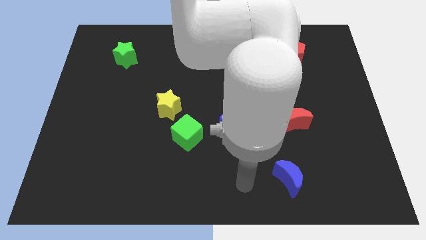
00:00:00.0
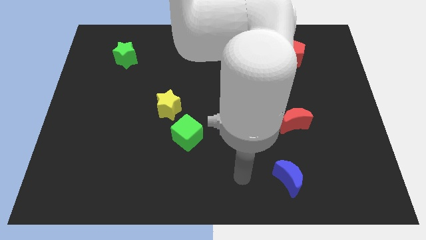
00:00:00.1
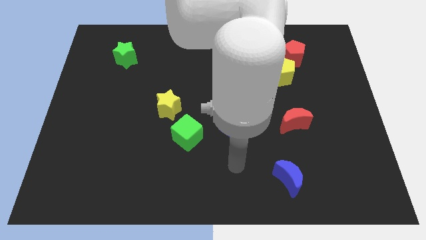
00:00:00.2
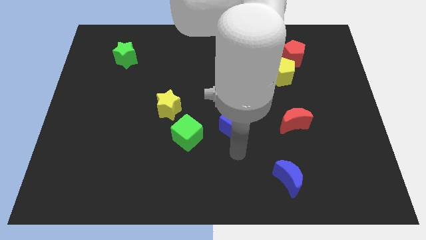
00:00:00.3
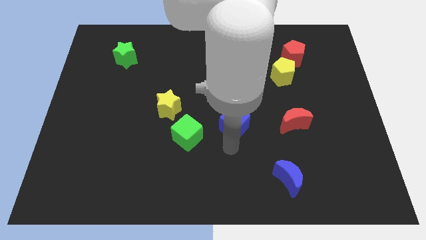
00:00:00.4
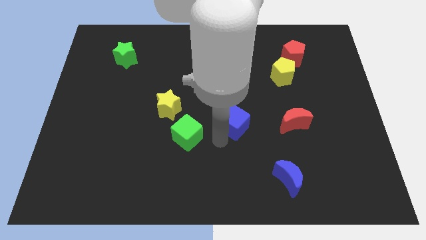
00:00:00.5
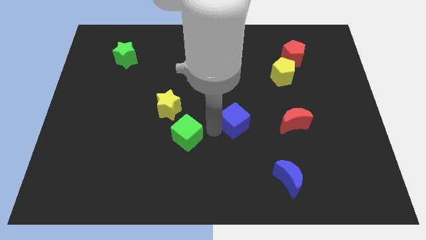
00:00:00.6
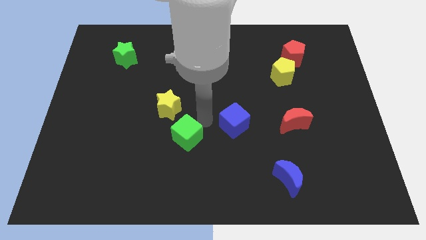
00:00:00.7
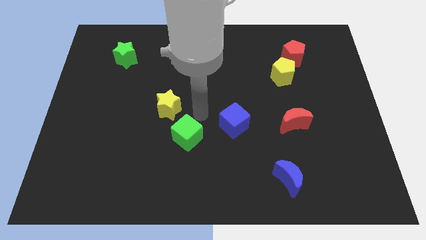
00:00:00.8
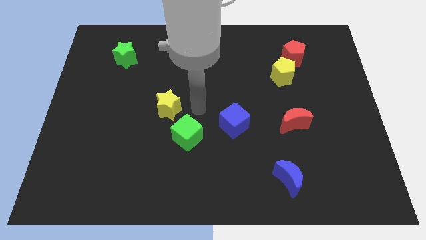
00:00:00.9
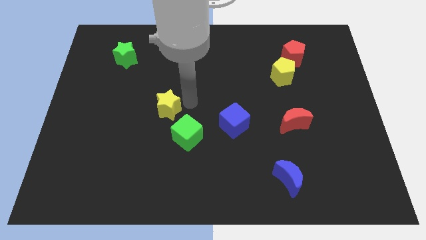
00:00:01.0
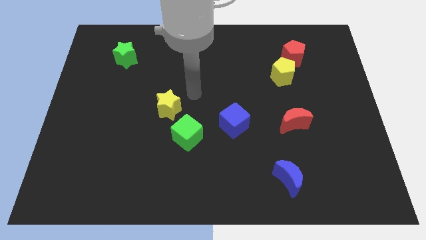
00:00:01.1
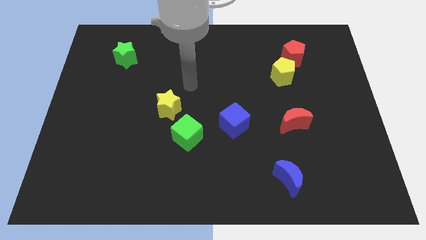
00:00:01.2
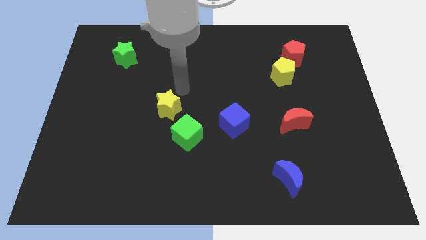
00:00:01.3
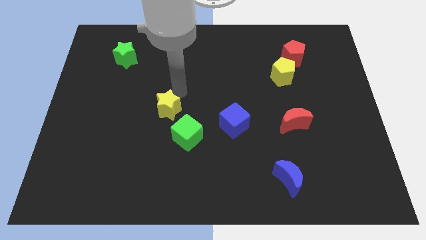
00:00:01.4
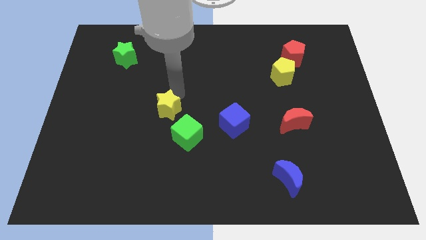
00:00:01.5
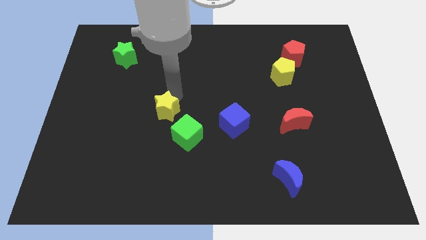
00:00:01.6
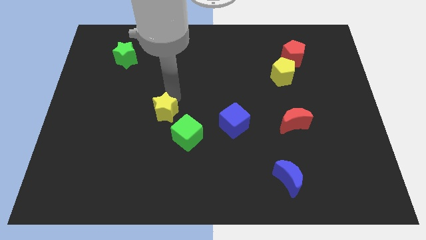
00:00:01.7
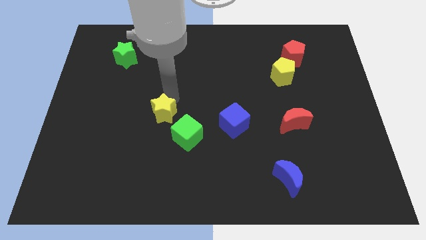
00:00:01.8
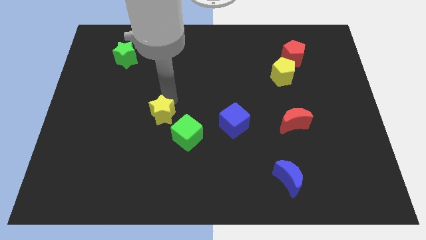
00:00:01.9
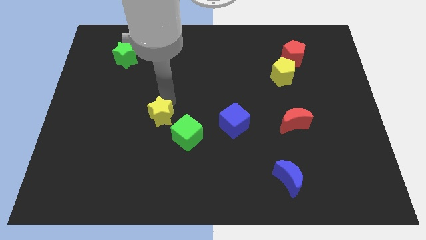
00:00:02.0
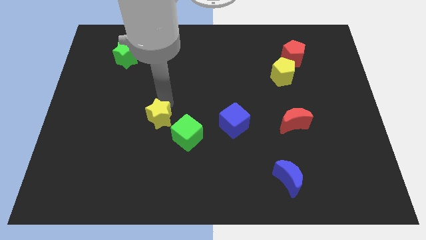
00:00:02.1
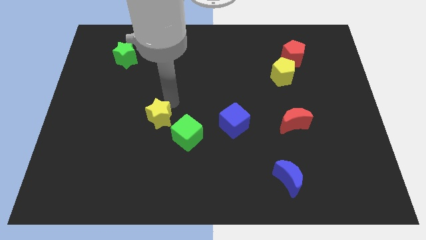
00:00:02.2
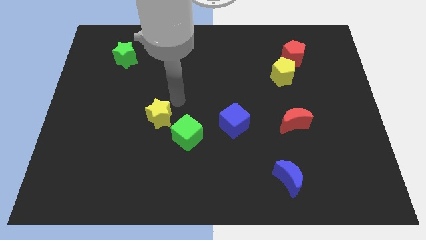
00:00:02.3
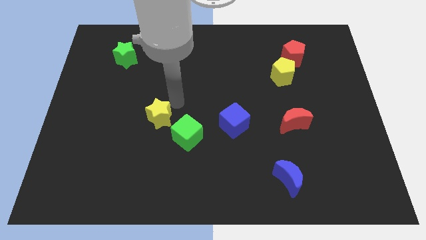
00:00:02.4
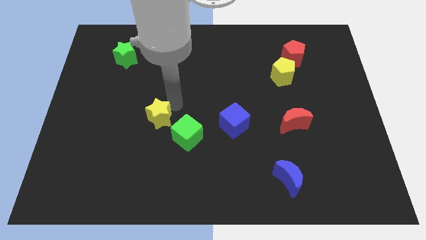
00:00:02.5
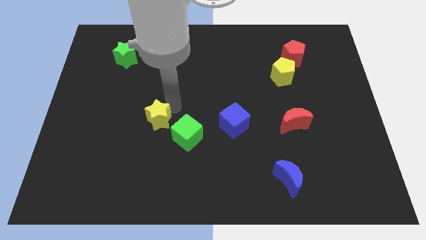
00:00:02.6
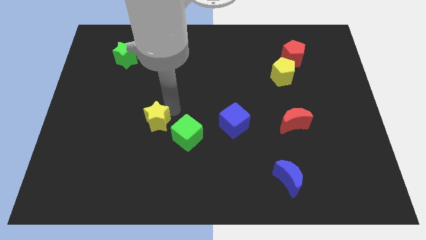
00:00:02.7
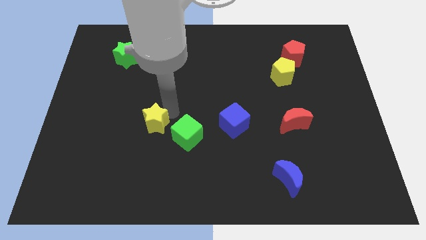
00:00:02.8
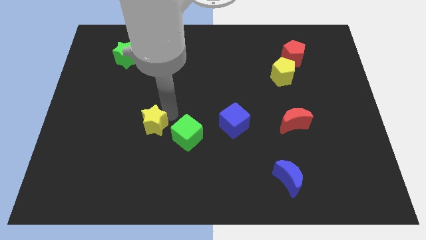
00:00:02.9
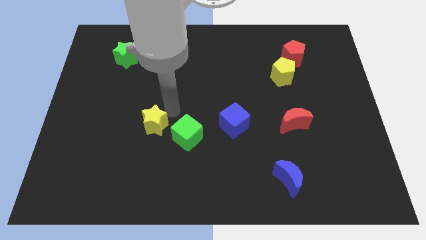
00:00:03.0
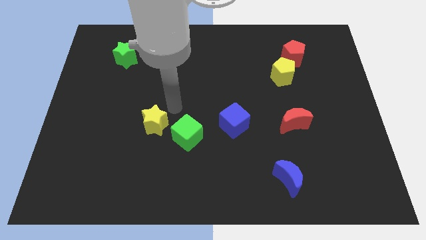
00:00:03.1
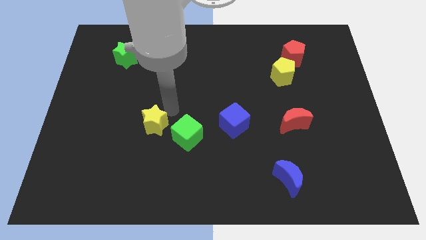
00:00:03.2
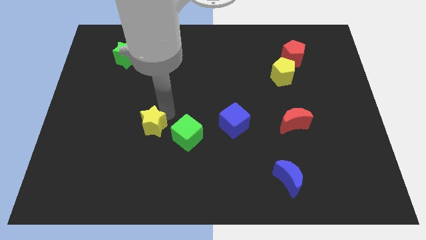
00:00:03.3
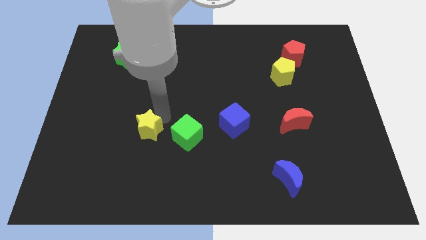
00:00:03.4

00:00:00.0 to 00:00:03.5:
slightly slide the yellow star diagonally down and to the left

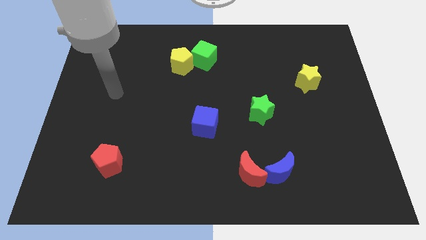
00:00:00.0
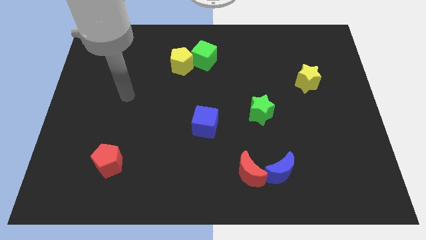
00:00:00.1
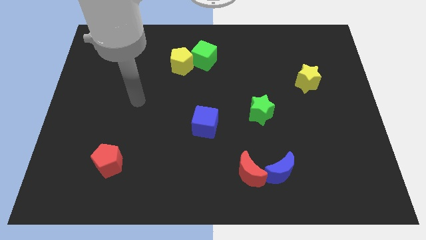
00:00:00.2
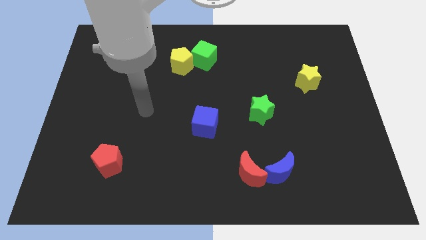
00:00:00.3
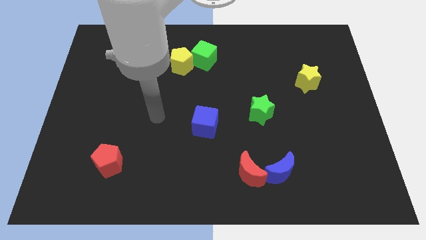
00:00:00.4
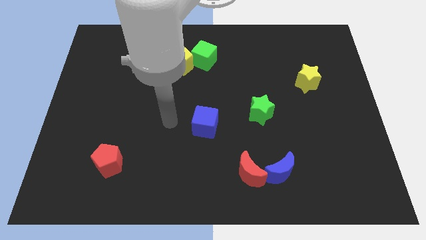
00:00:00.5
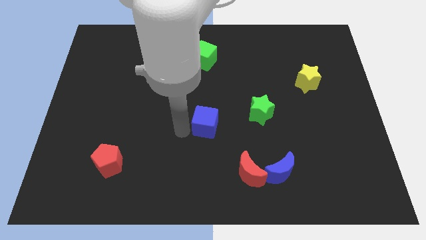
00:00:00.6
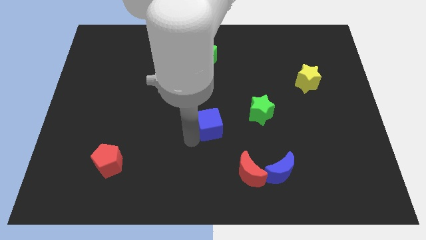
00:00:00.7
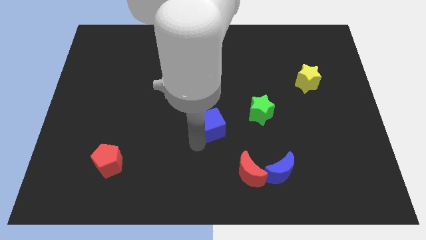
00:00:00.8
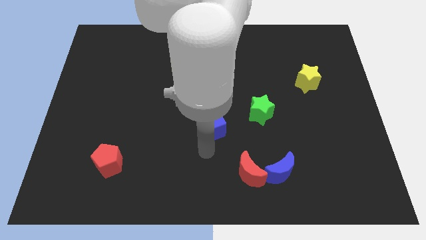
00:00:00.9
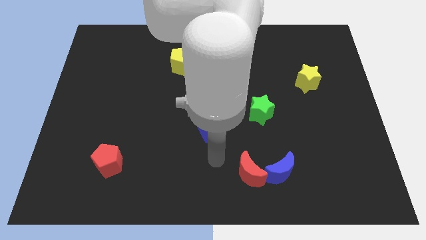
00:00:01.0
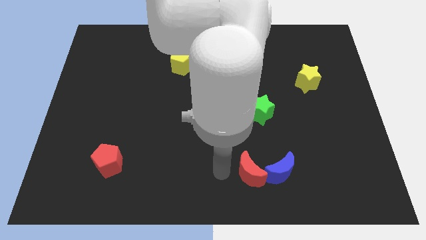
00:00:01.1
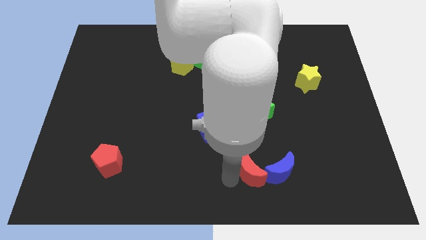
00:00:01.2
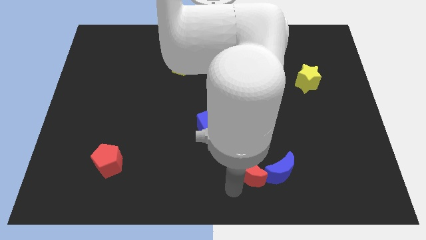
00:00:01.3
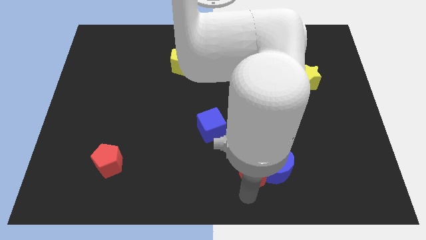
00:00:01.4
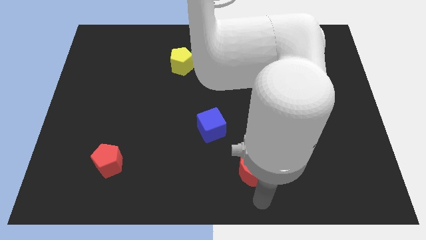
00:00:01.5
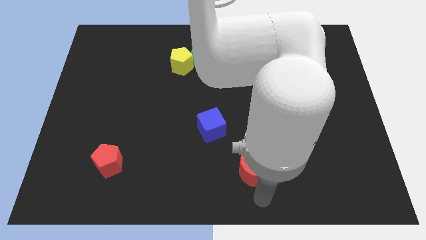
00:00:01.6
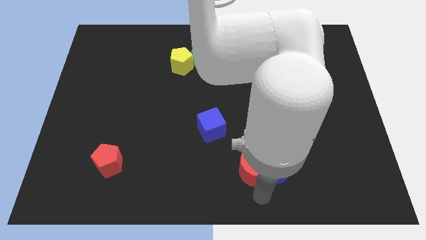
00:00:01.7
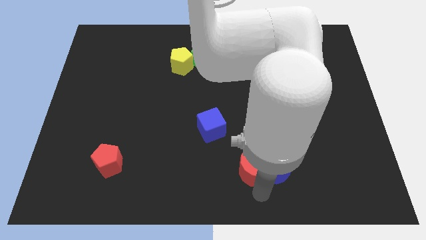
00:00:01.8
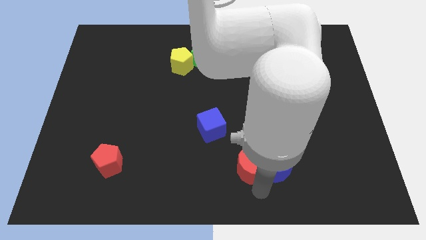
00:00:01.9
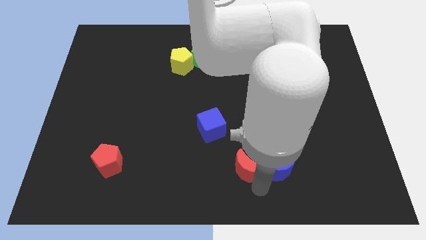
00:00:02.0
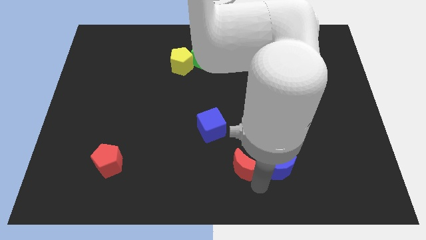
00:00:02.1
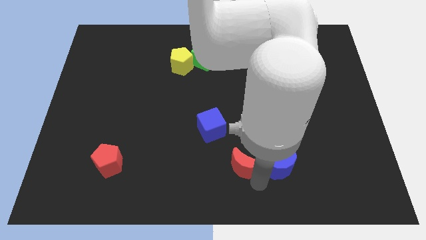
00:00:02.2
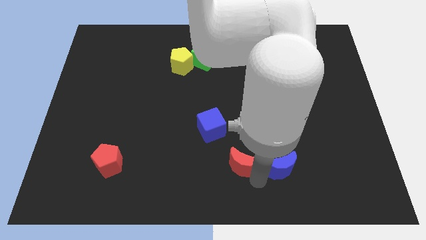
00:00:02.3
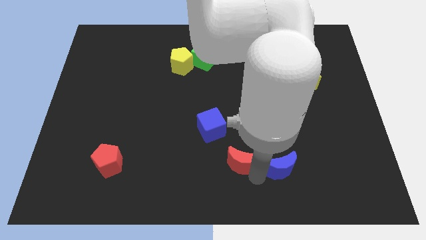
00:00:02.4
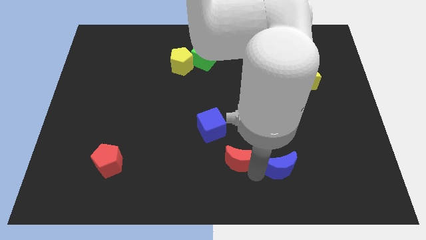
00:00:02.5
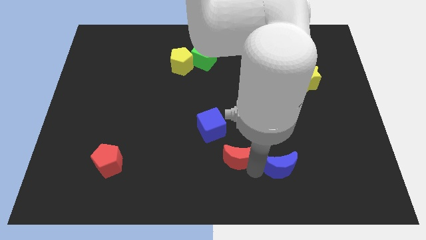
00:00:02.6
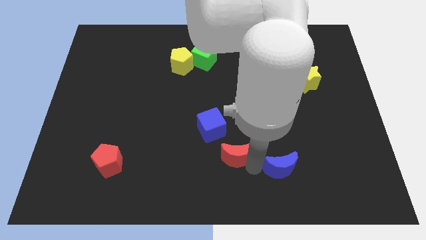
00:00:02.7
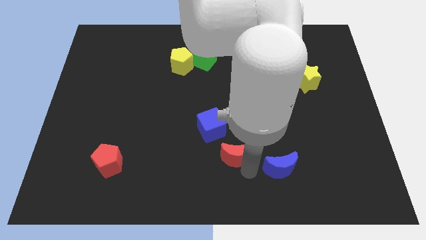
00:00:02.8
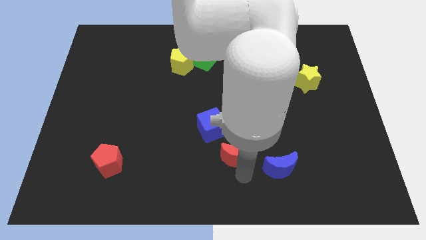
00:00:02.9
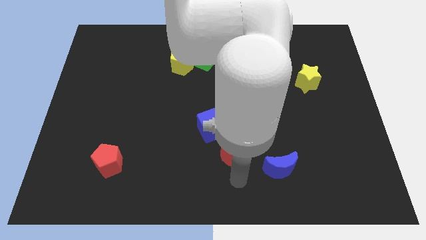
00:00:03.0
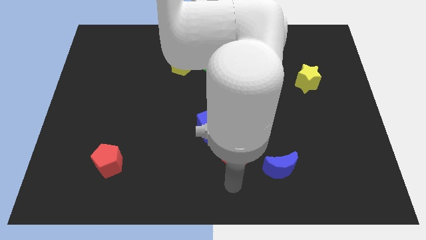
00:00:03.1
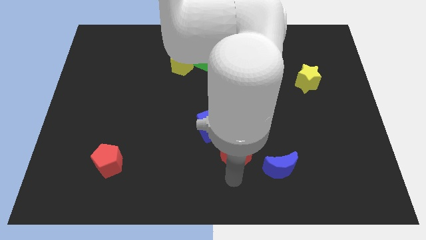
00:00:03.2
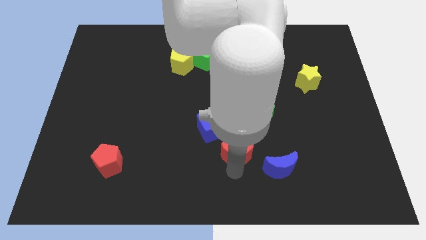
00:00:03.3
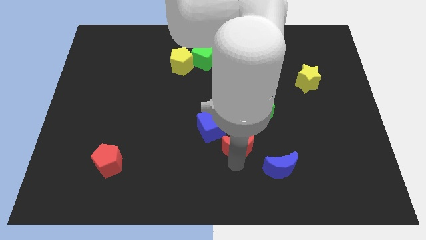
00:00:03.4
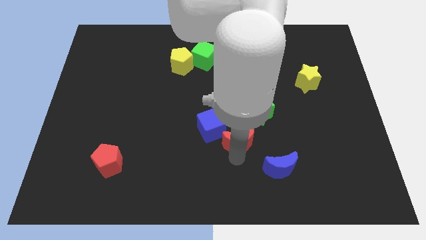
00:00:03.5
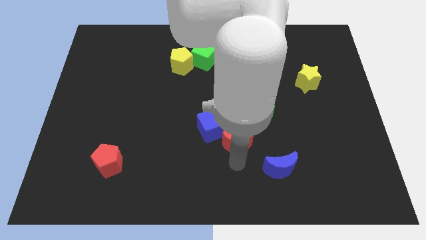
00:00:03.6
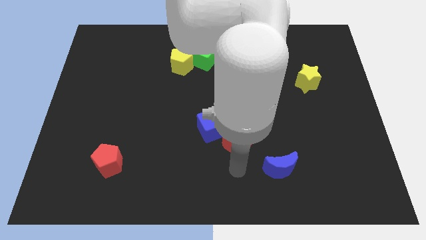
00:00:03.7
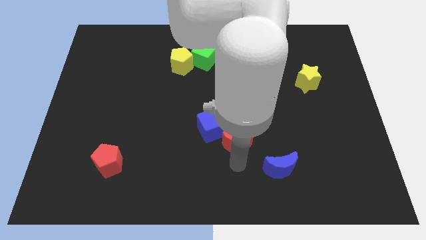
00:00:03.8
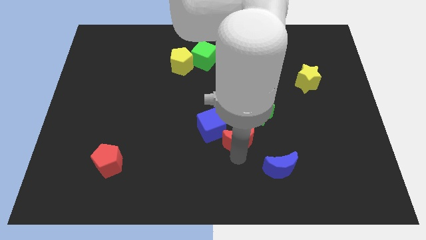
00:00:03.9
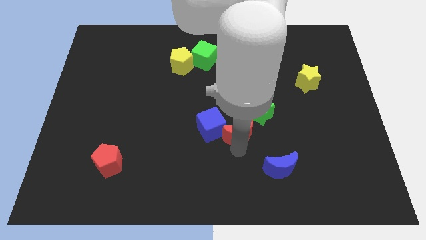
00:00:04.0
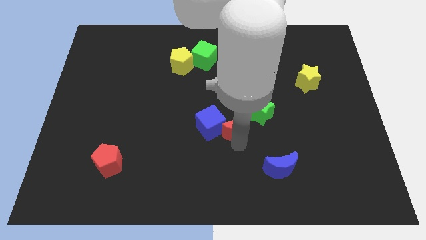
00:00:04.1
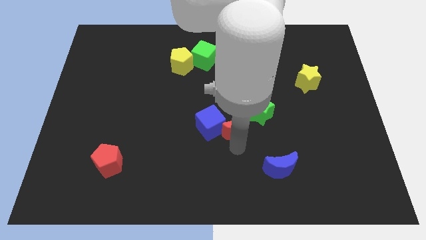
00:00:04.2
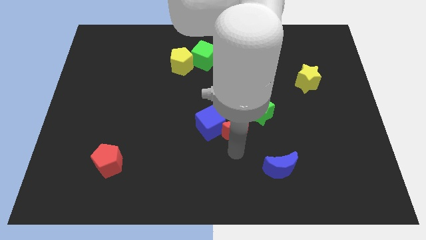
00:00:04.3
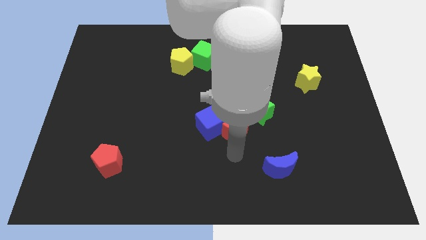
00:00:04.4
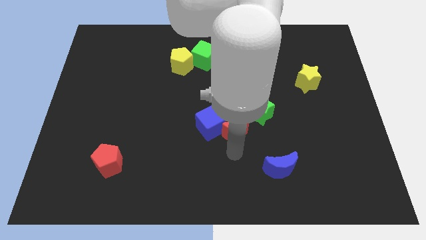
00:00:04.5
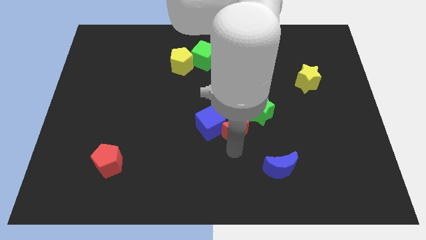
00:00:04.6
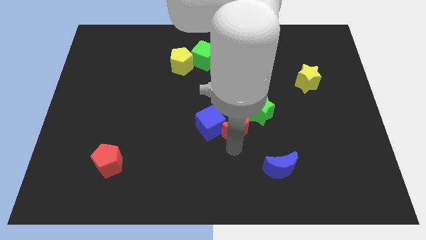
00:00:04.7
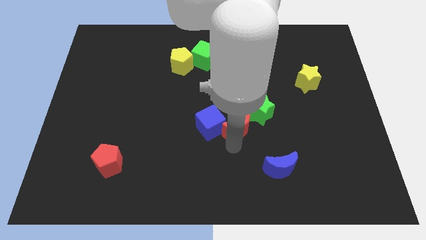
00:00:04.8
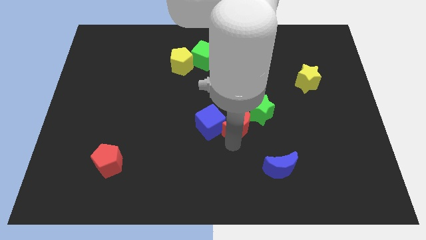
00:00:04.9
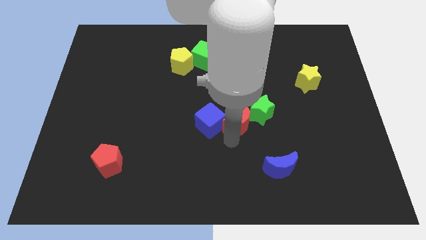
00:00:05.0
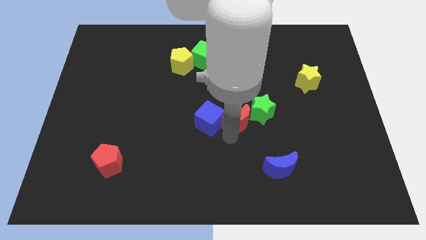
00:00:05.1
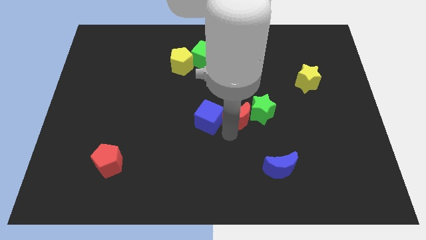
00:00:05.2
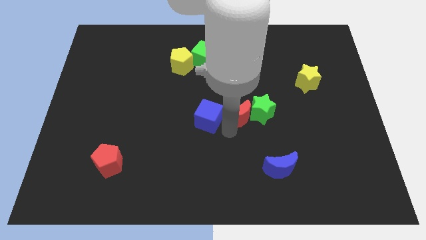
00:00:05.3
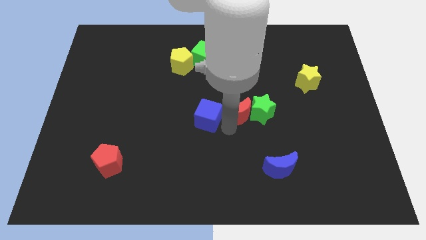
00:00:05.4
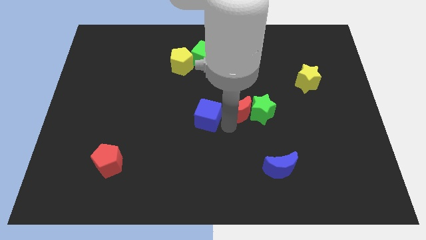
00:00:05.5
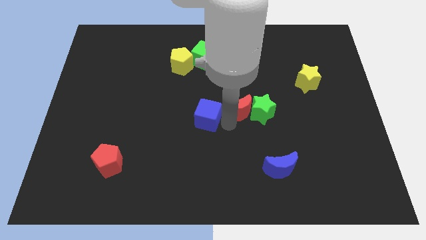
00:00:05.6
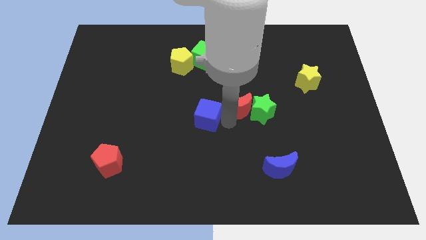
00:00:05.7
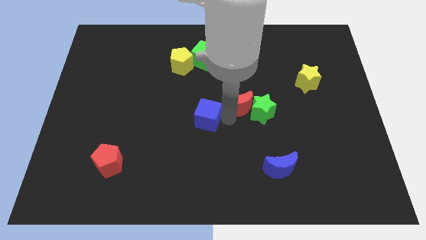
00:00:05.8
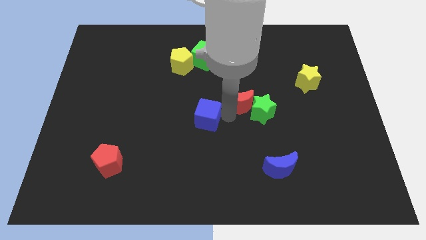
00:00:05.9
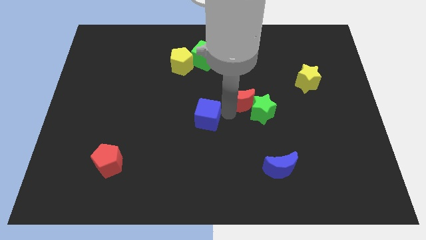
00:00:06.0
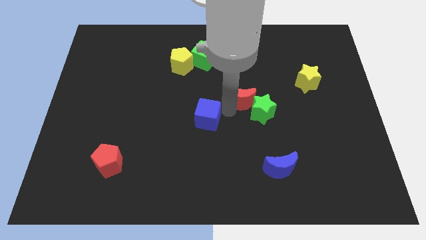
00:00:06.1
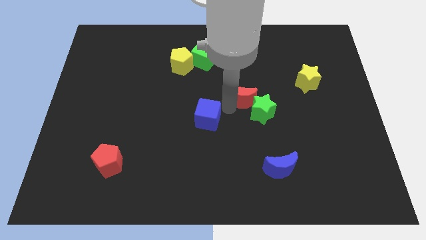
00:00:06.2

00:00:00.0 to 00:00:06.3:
push the red moon up
